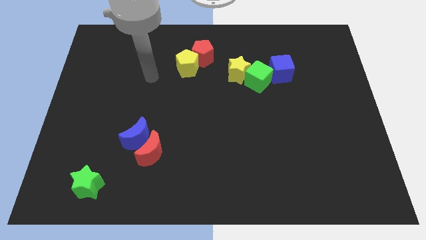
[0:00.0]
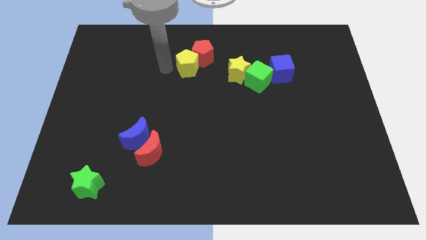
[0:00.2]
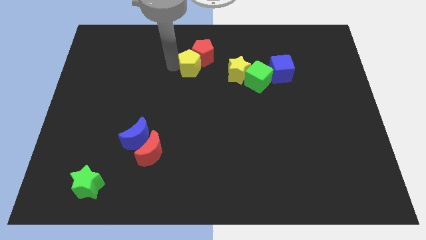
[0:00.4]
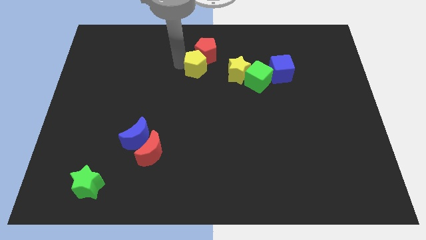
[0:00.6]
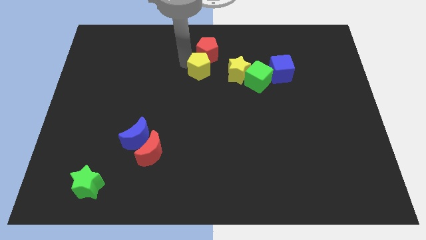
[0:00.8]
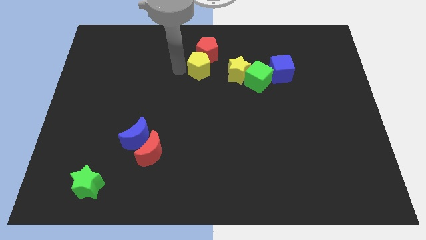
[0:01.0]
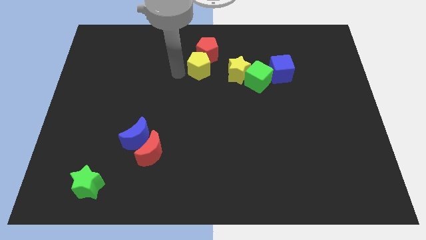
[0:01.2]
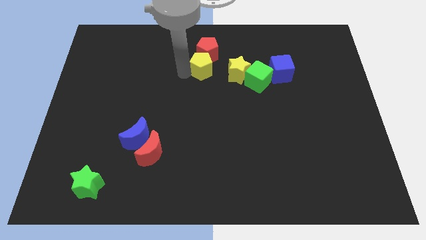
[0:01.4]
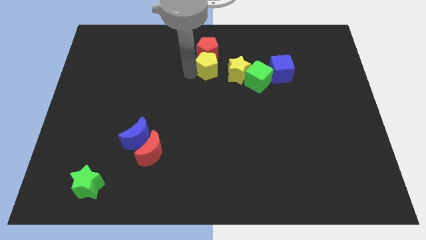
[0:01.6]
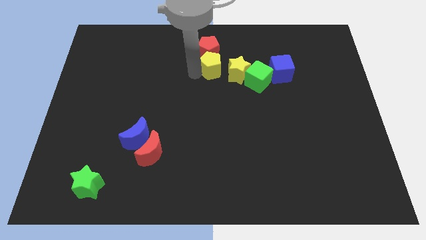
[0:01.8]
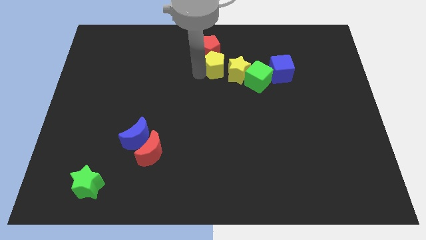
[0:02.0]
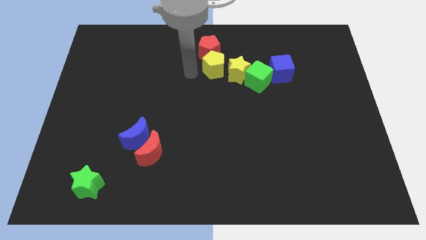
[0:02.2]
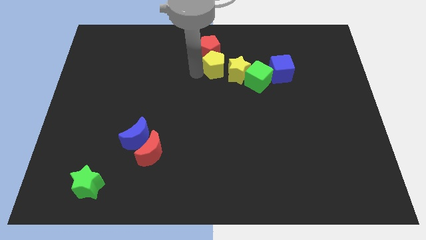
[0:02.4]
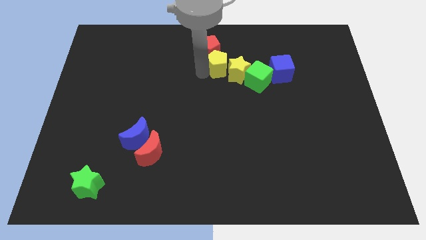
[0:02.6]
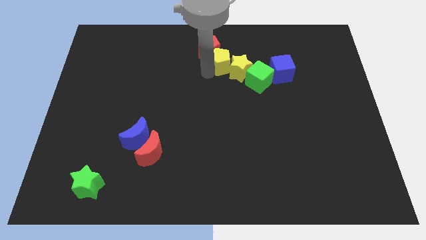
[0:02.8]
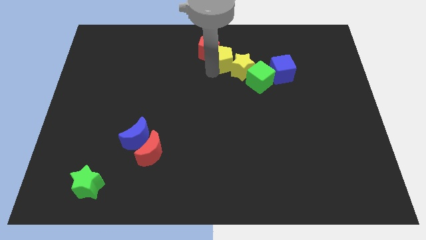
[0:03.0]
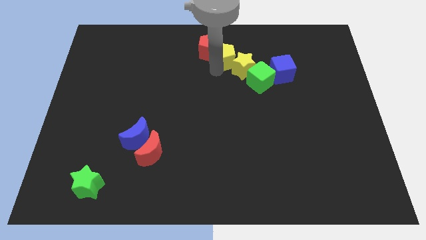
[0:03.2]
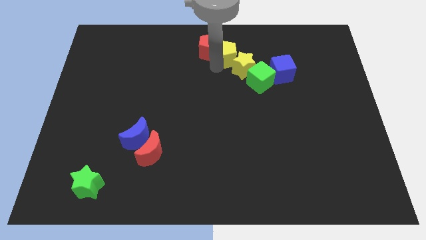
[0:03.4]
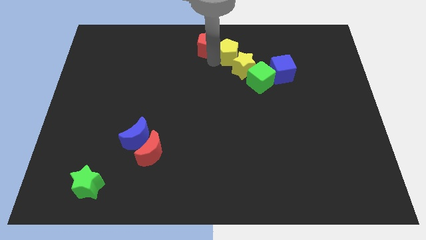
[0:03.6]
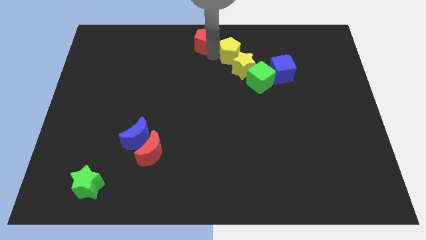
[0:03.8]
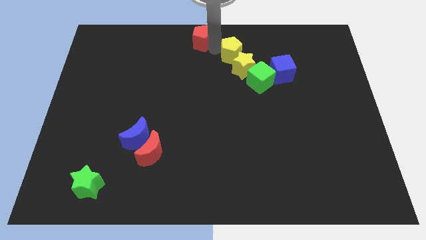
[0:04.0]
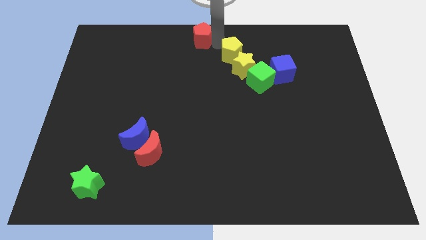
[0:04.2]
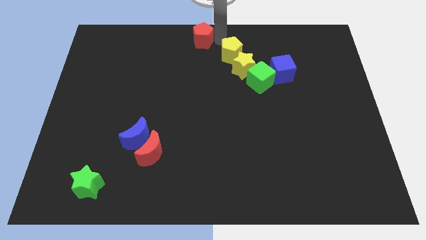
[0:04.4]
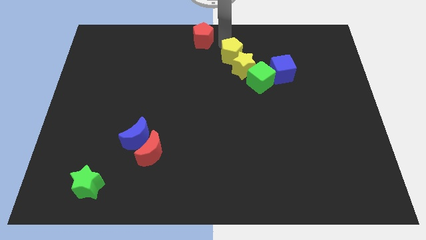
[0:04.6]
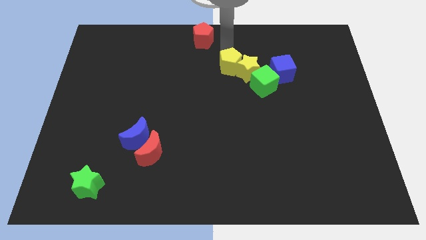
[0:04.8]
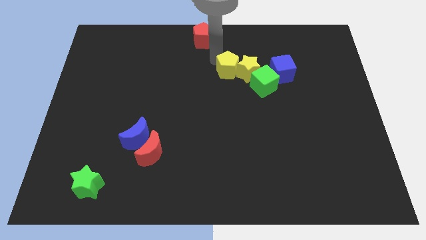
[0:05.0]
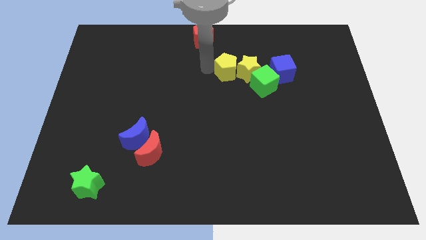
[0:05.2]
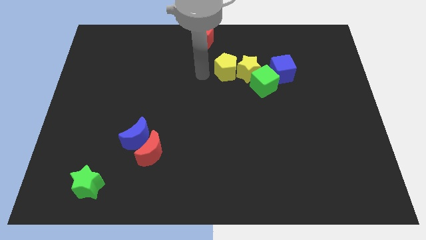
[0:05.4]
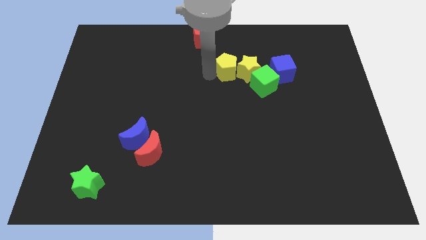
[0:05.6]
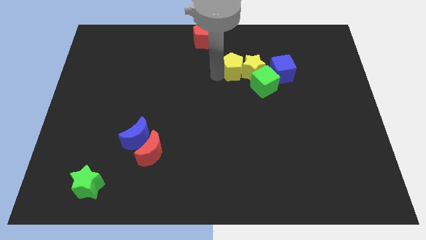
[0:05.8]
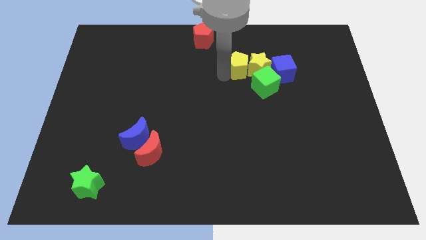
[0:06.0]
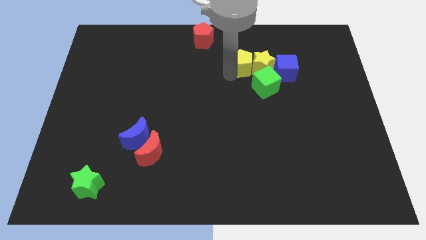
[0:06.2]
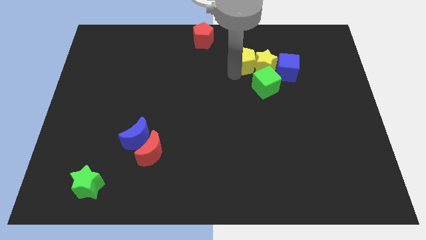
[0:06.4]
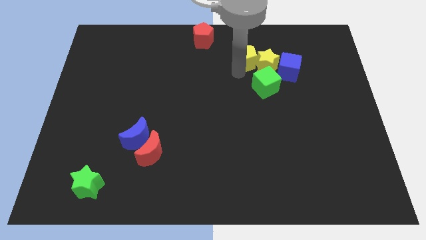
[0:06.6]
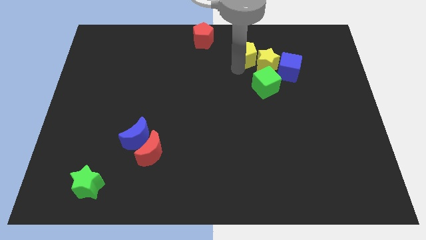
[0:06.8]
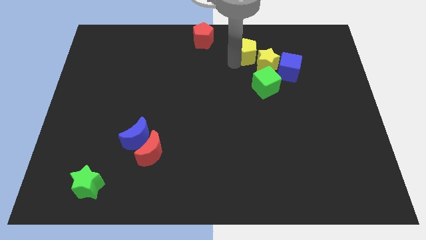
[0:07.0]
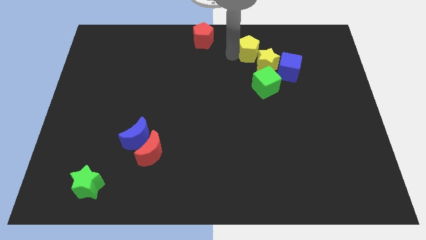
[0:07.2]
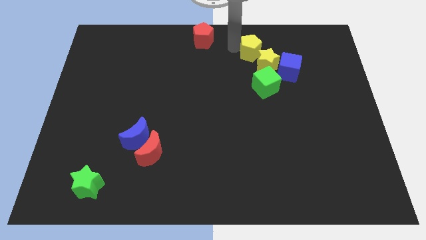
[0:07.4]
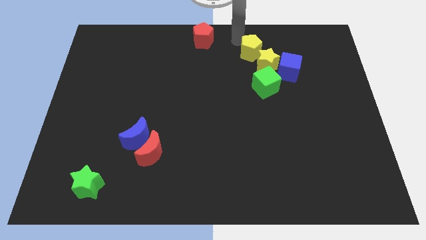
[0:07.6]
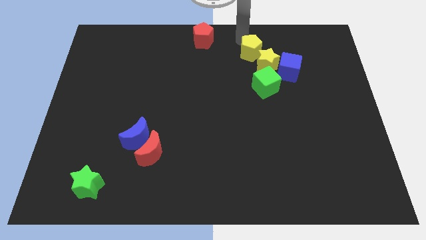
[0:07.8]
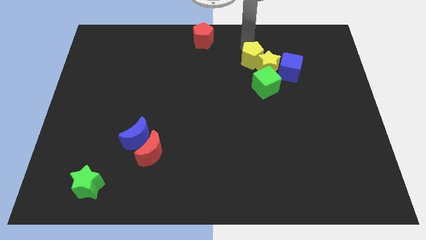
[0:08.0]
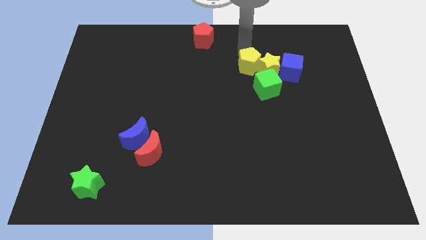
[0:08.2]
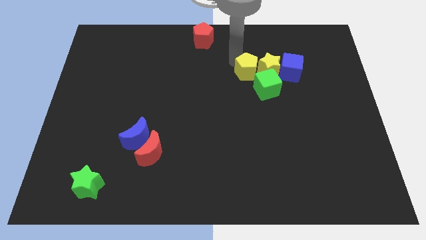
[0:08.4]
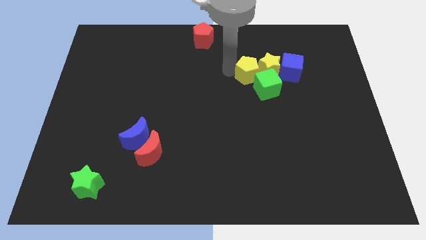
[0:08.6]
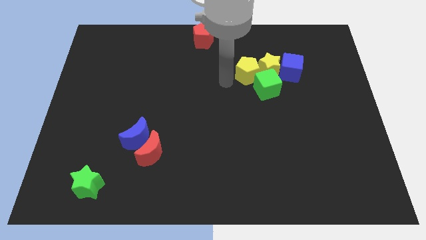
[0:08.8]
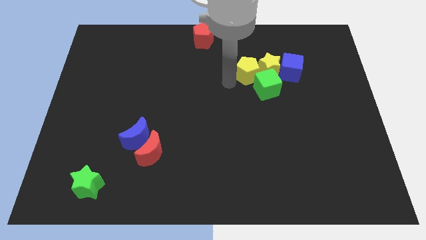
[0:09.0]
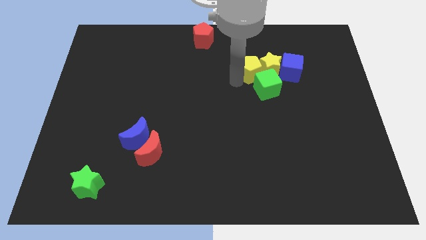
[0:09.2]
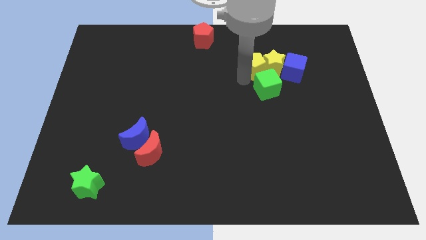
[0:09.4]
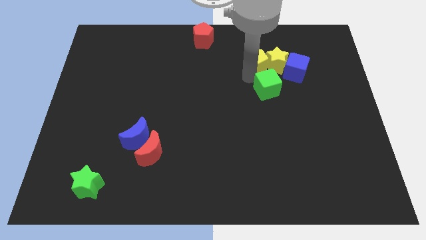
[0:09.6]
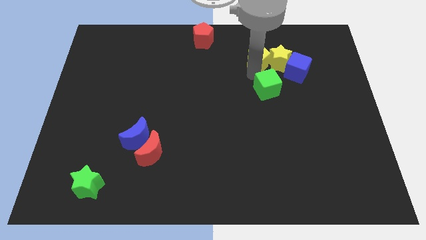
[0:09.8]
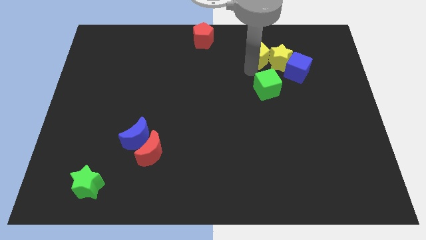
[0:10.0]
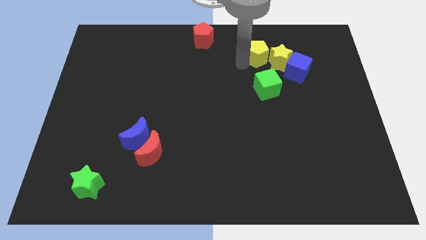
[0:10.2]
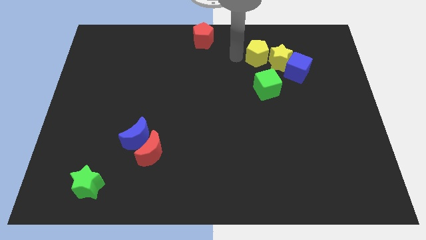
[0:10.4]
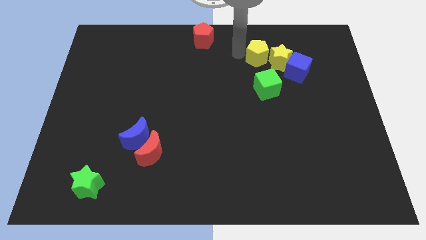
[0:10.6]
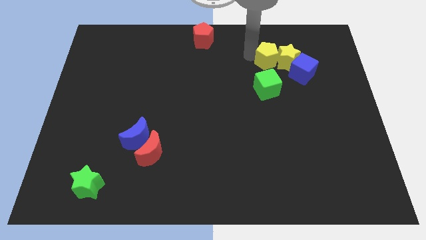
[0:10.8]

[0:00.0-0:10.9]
slide the yellow pentagon to the right

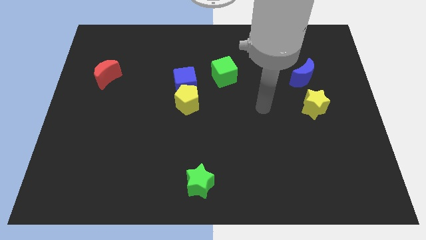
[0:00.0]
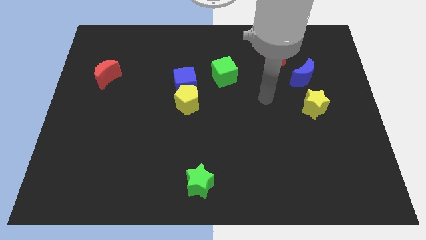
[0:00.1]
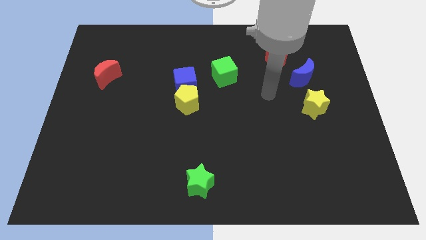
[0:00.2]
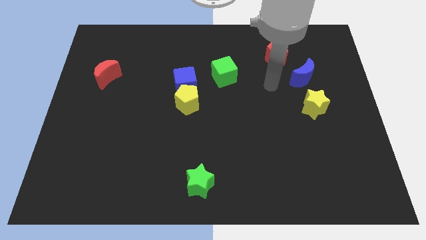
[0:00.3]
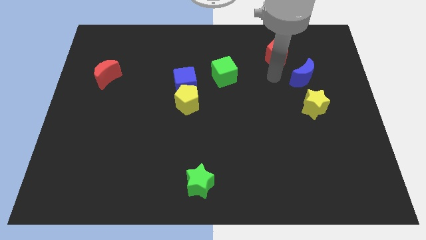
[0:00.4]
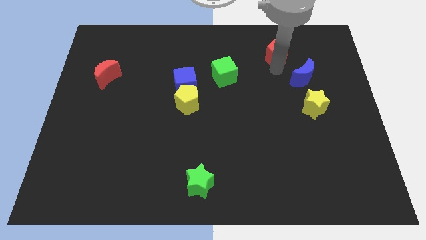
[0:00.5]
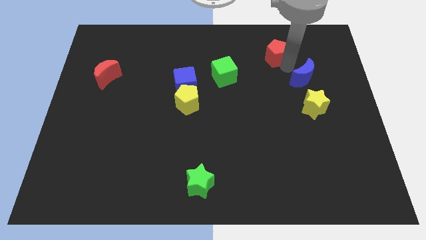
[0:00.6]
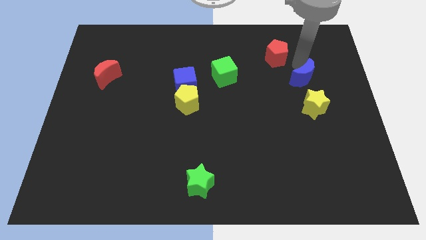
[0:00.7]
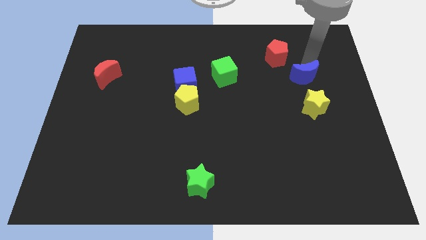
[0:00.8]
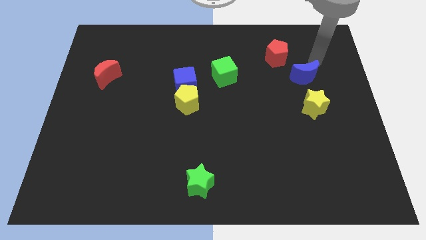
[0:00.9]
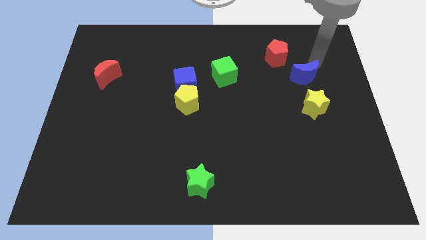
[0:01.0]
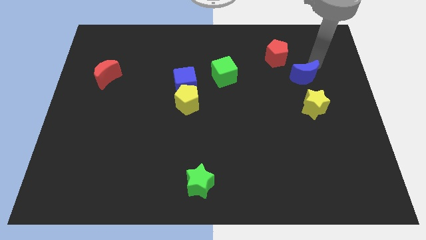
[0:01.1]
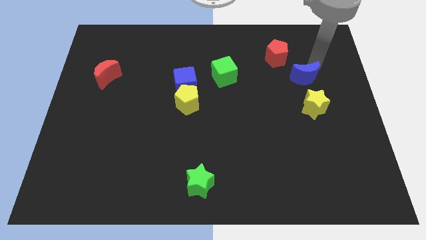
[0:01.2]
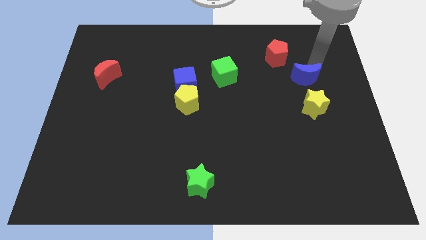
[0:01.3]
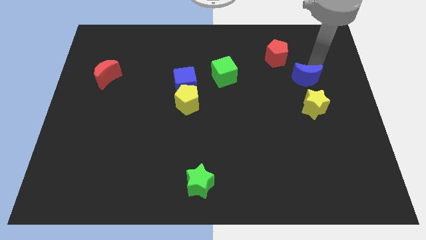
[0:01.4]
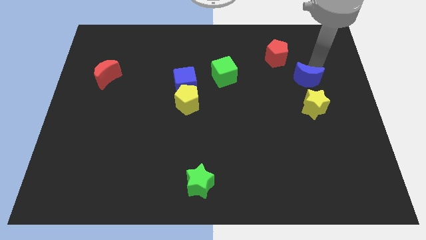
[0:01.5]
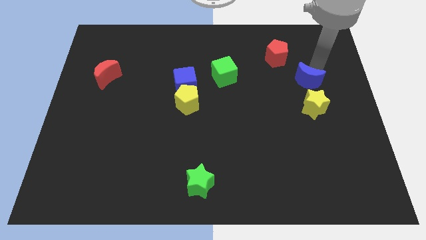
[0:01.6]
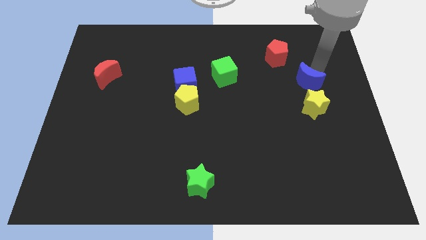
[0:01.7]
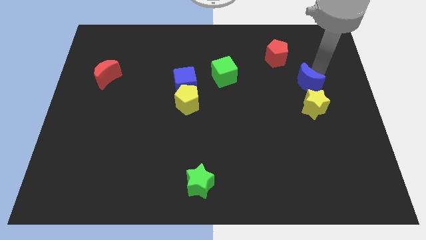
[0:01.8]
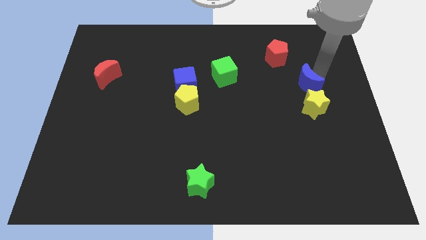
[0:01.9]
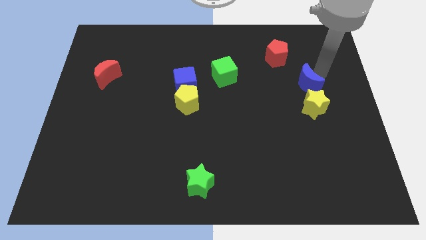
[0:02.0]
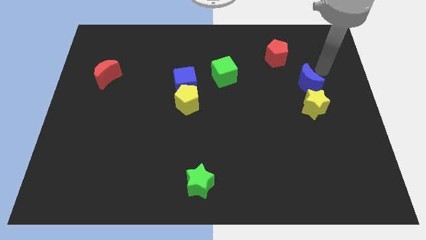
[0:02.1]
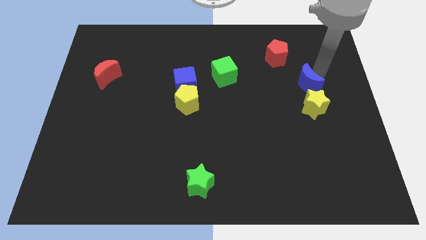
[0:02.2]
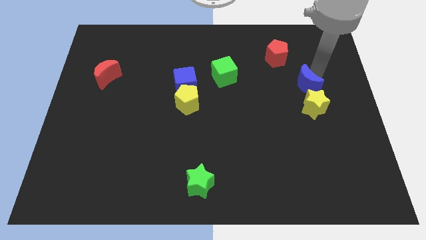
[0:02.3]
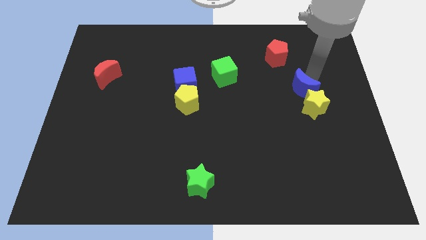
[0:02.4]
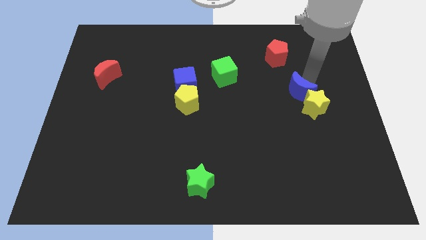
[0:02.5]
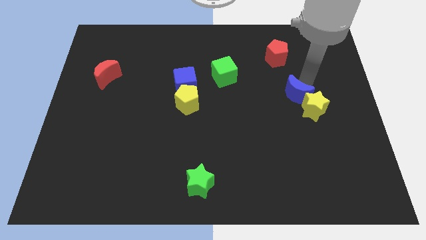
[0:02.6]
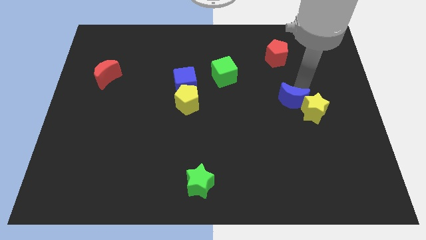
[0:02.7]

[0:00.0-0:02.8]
slightly push the blue moon downwards and then left

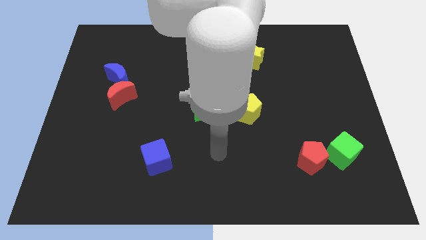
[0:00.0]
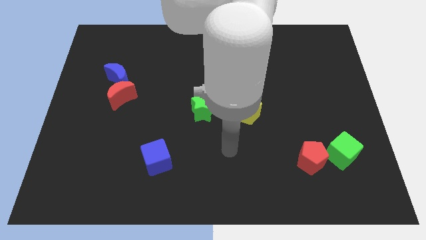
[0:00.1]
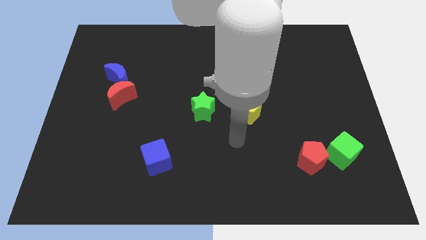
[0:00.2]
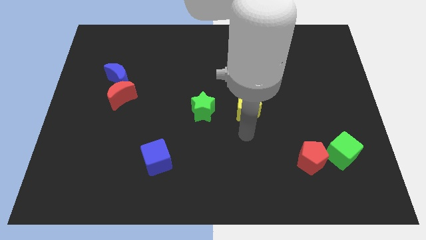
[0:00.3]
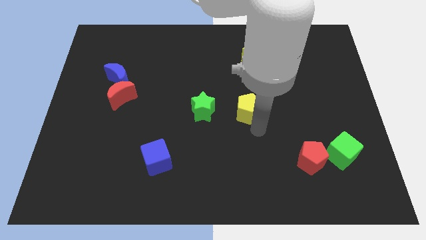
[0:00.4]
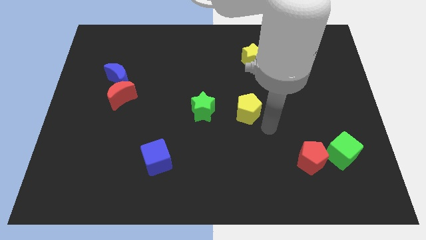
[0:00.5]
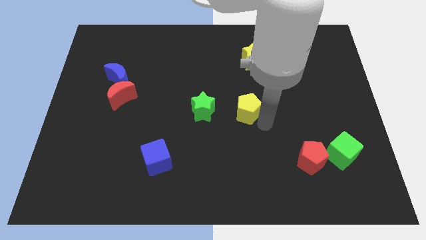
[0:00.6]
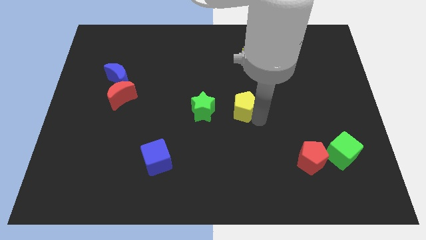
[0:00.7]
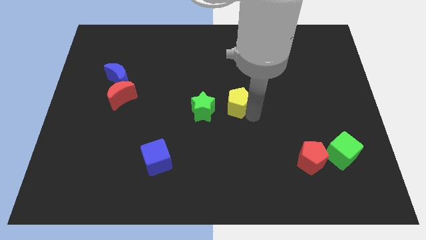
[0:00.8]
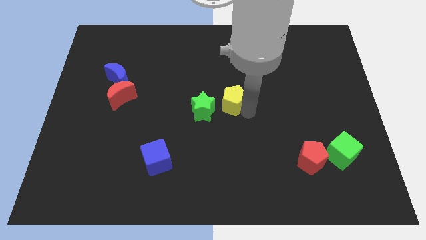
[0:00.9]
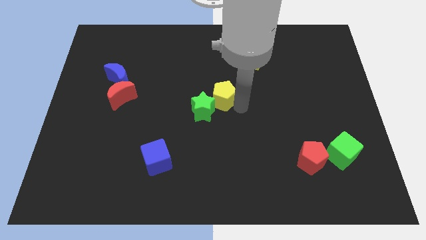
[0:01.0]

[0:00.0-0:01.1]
slightly push the yellow pentagon diagonally up and to the left
